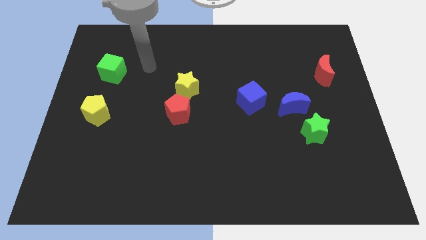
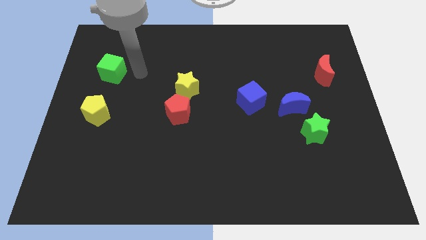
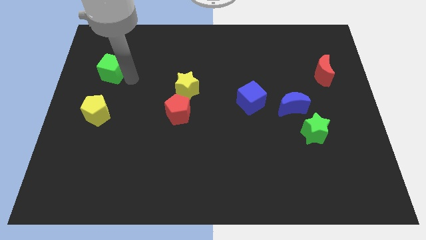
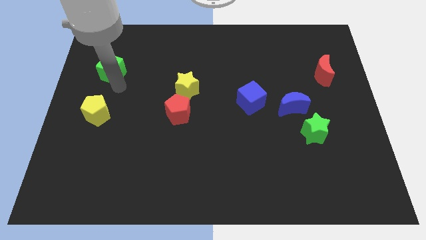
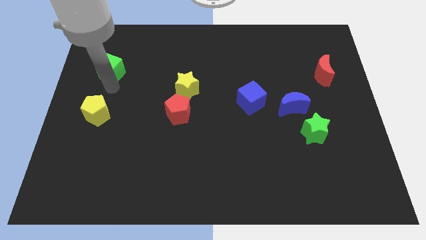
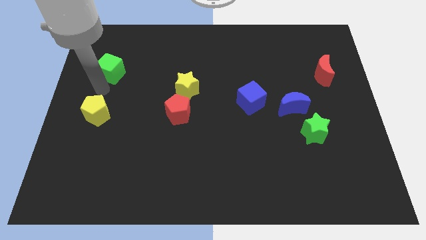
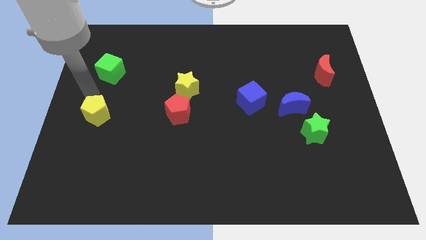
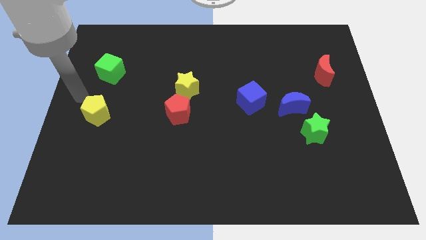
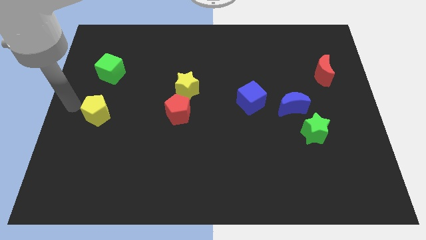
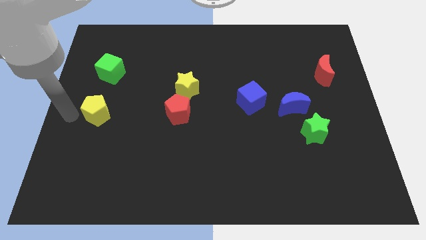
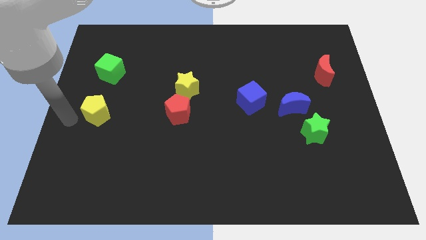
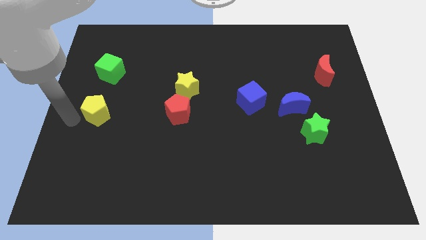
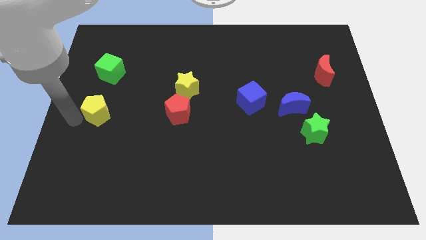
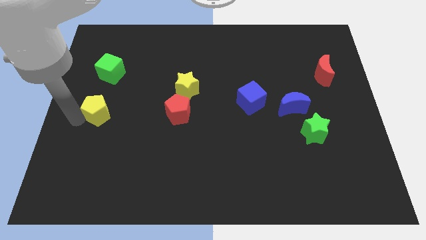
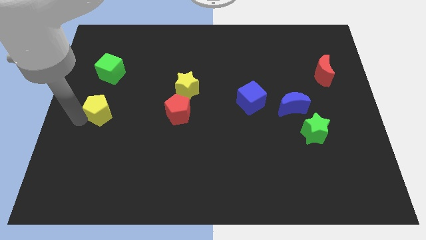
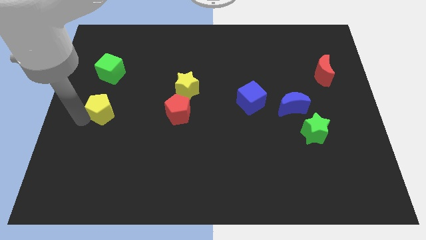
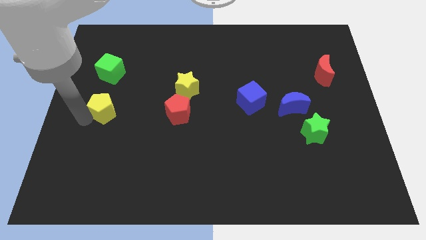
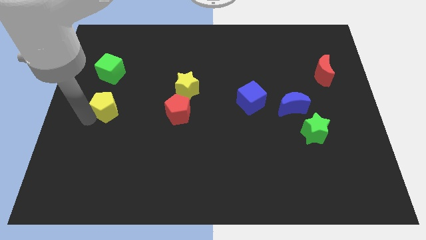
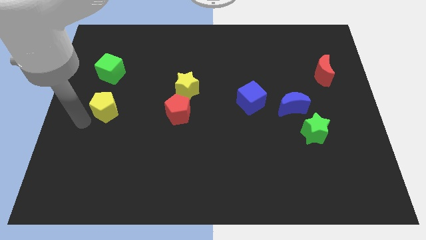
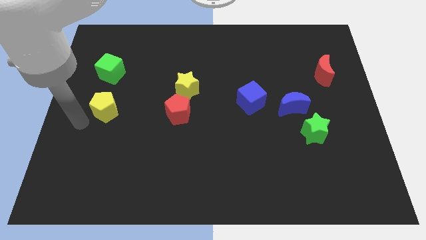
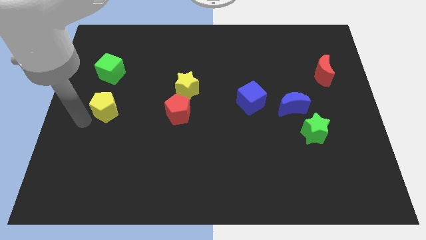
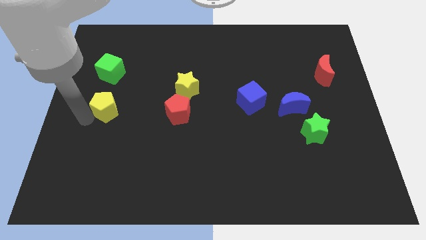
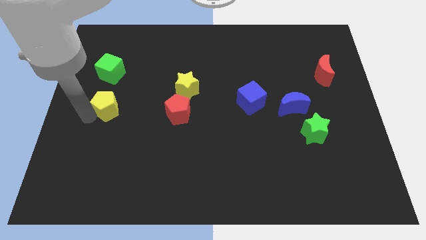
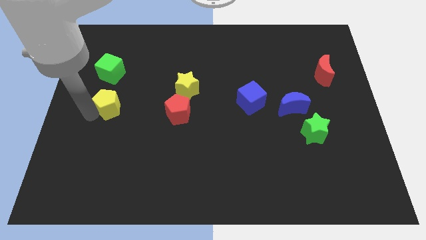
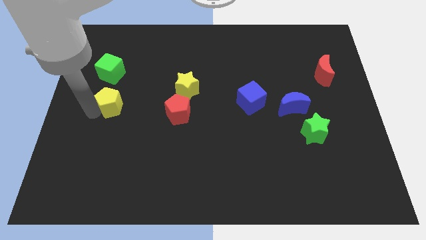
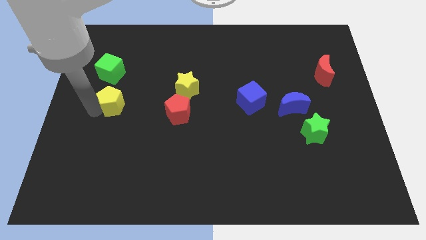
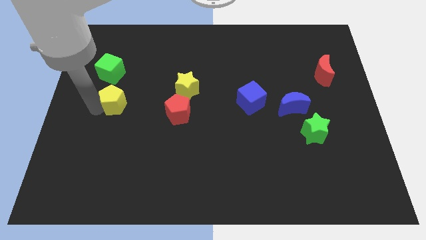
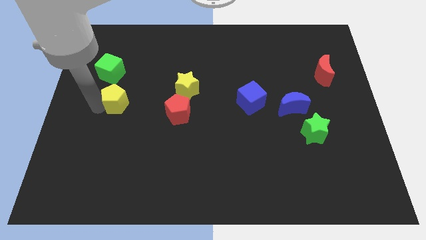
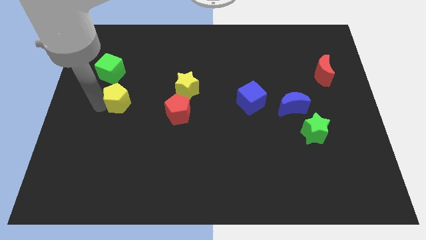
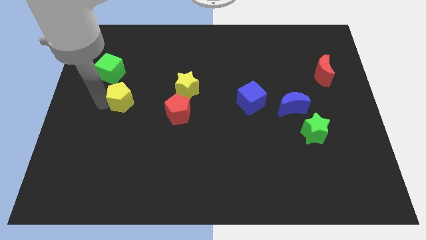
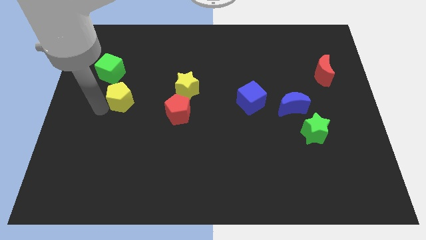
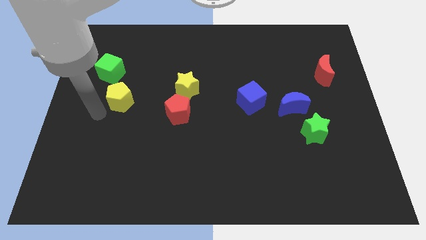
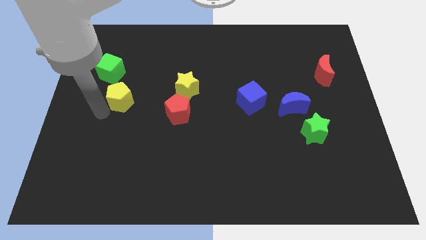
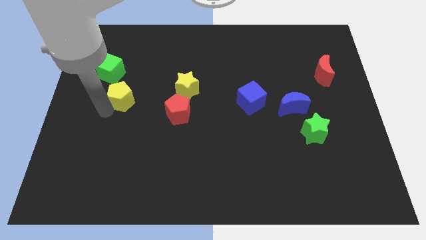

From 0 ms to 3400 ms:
push the yellow pentagon upwards and to the right a bit

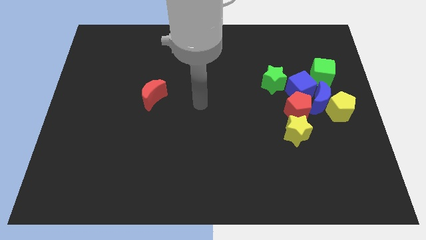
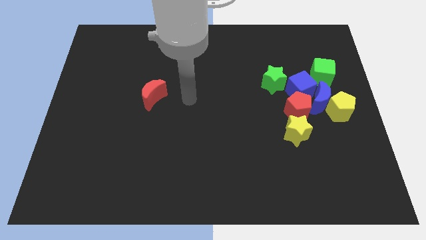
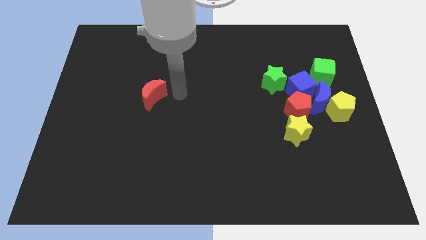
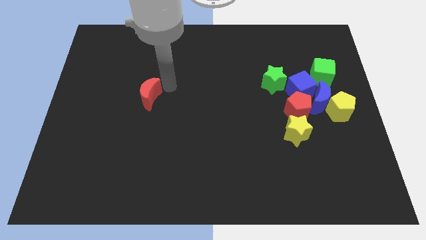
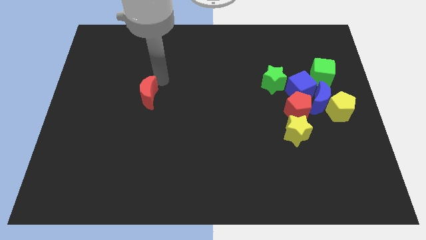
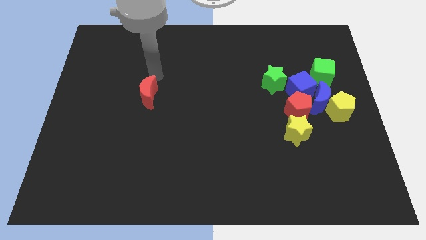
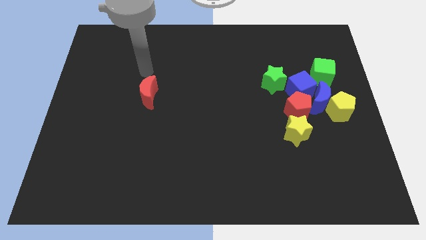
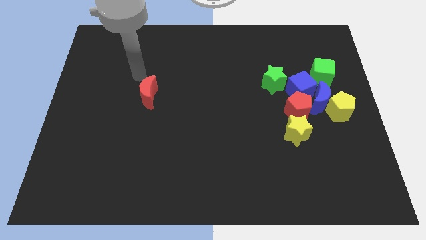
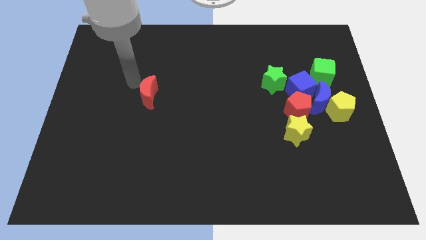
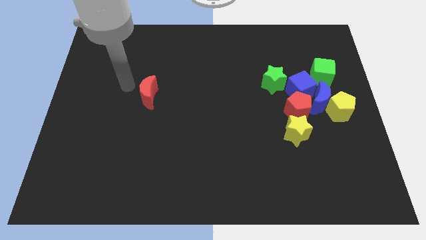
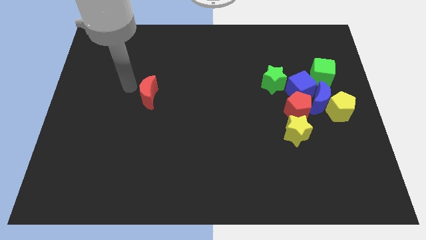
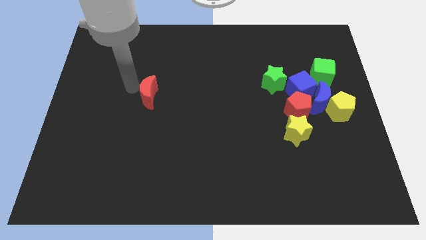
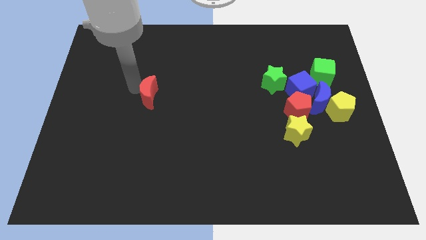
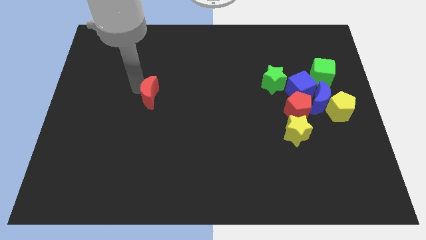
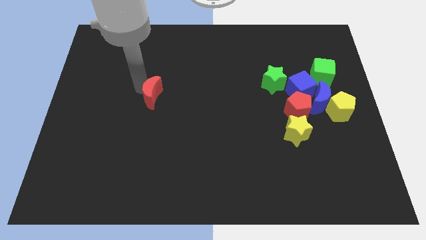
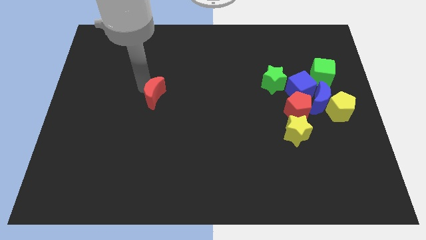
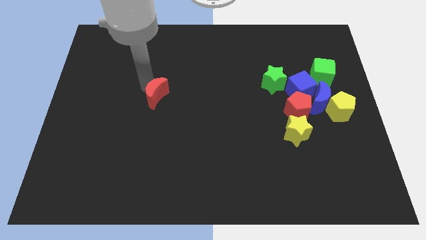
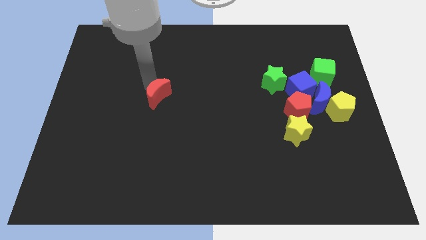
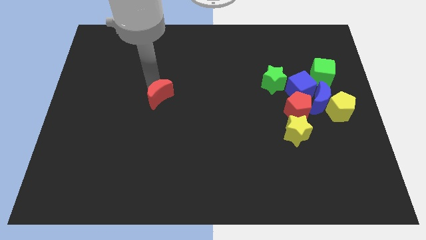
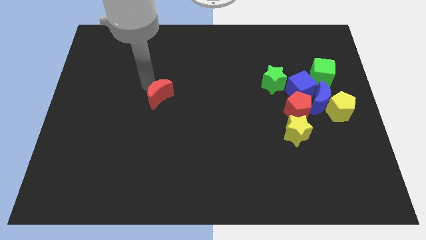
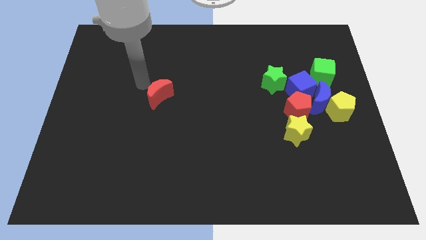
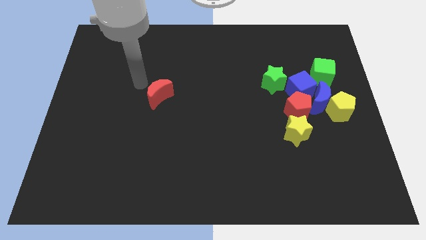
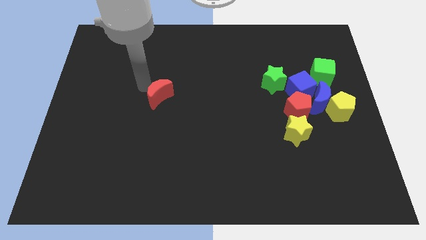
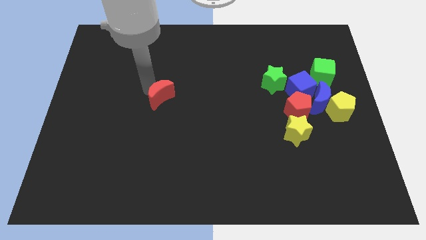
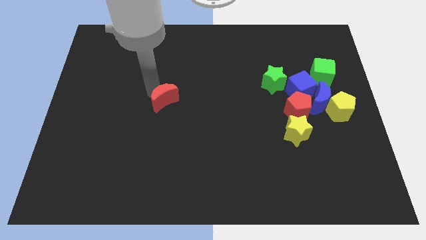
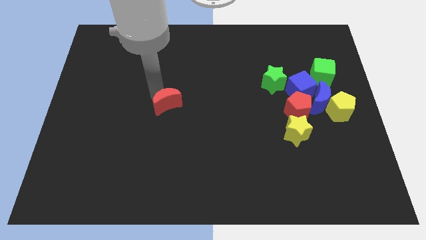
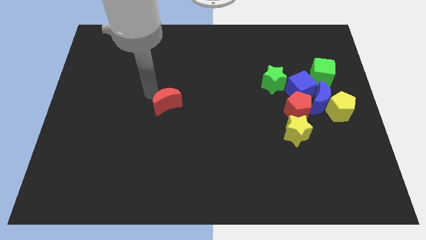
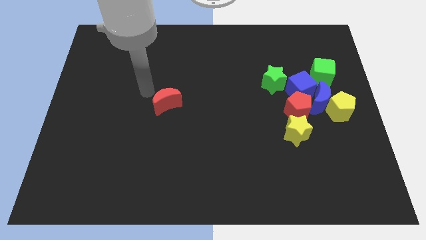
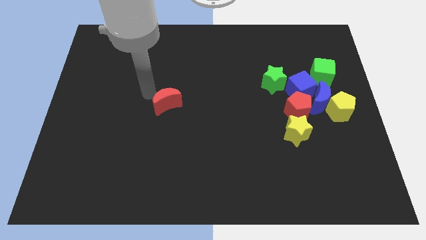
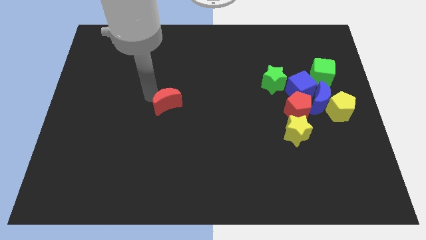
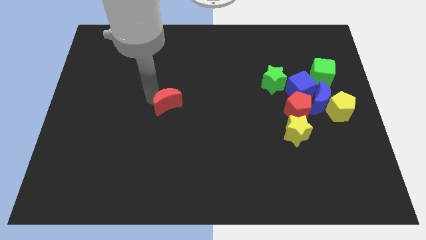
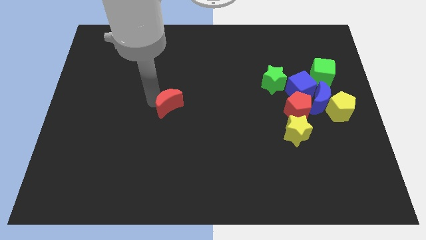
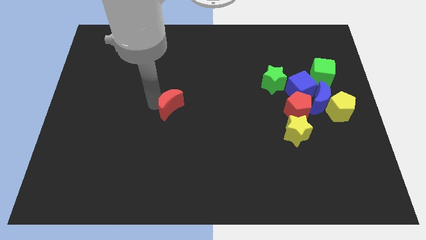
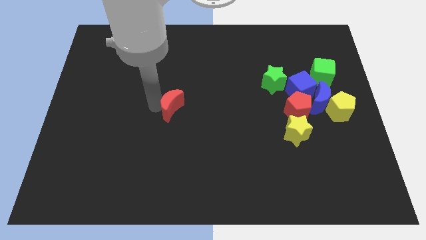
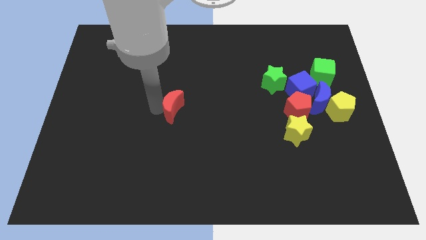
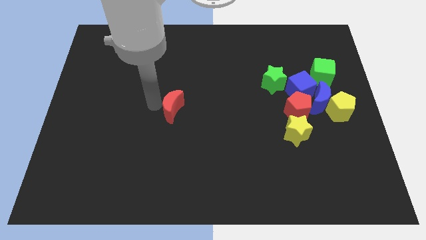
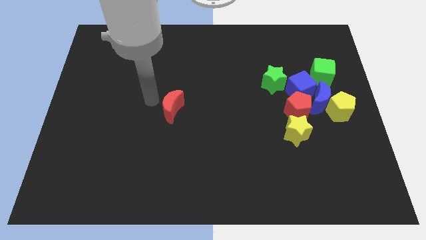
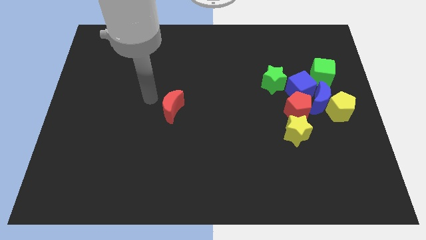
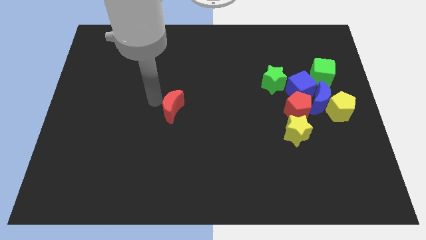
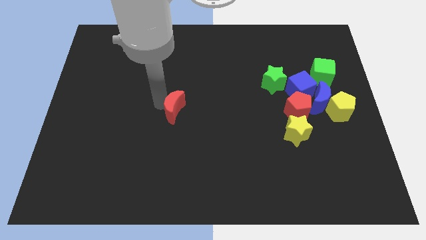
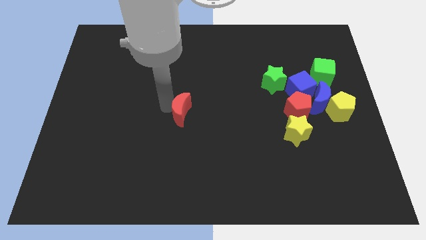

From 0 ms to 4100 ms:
slightly push the red moon down and then right

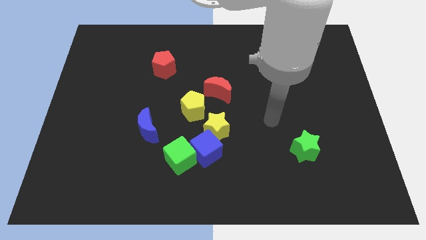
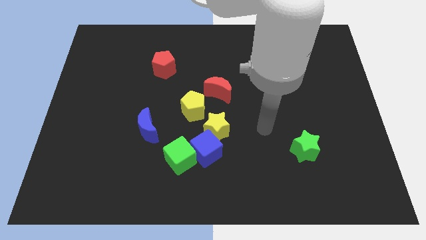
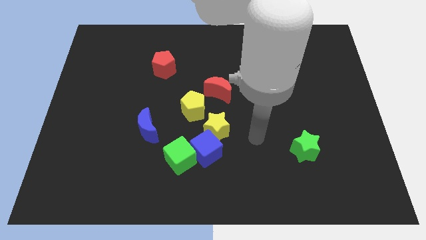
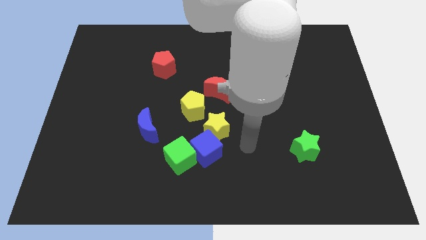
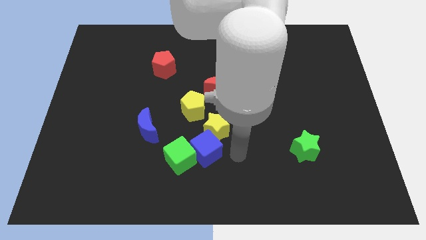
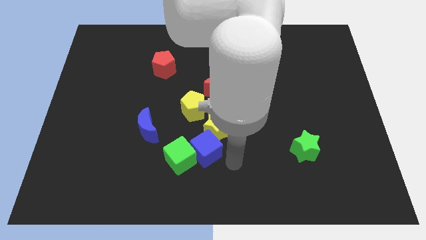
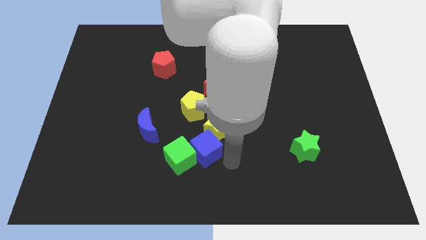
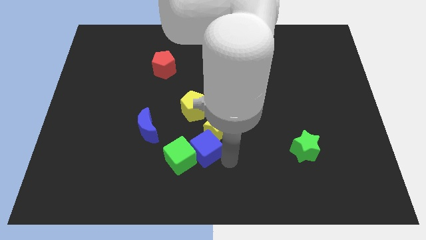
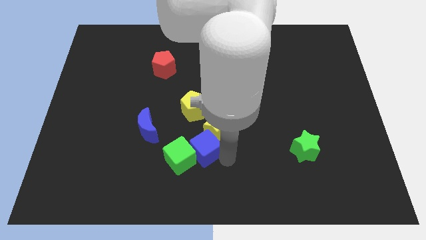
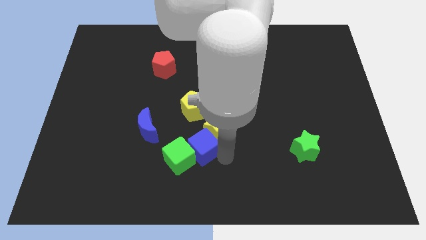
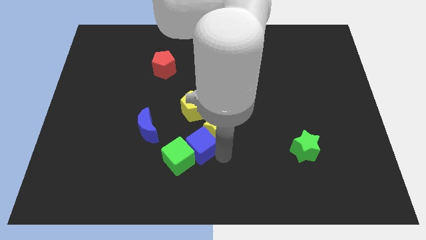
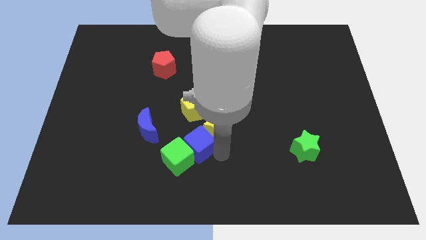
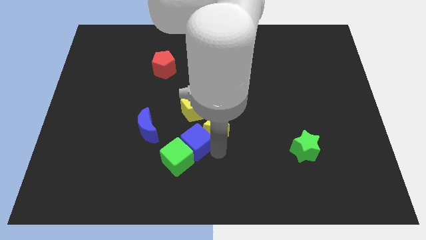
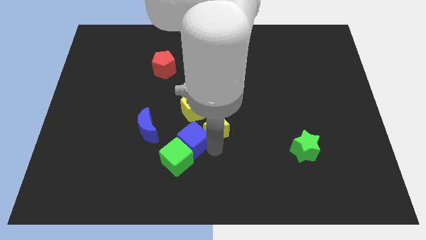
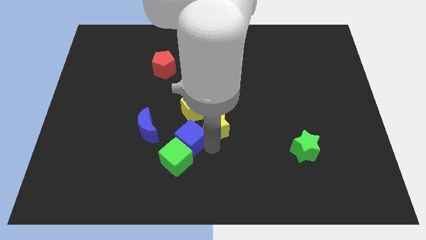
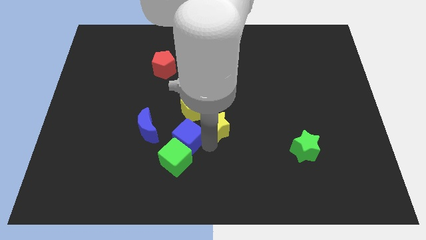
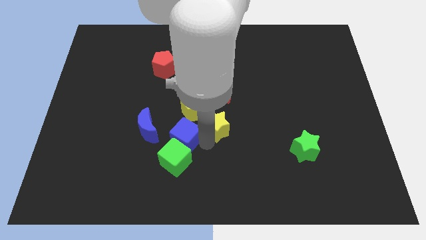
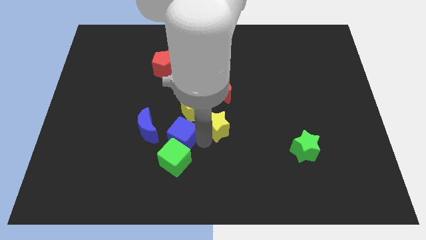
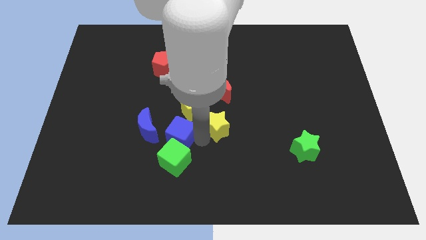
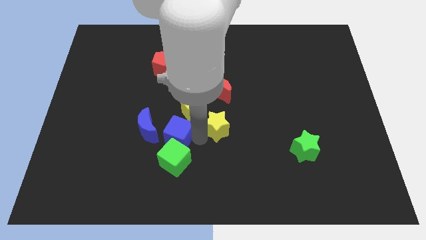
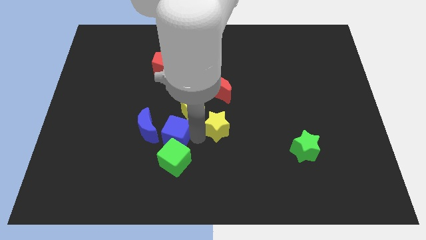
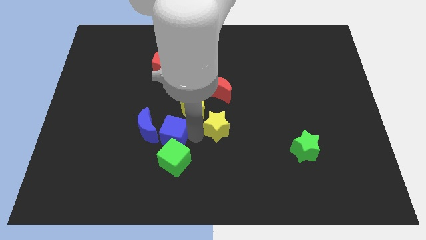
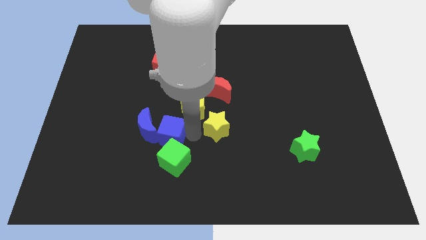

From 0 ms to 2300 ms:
slide the blue cube a bit left
